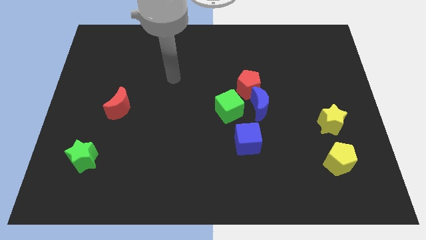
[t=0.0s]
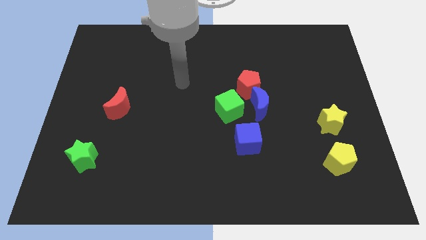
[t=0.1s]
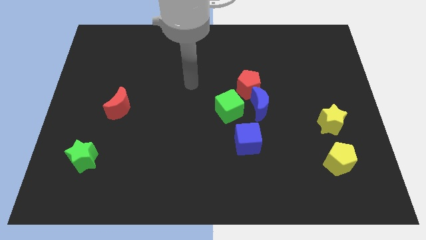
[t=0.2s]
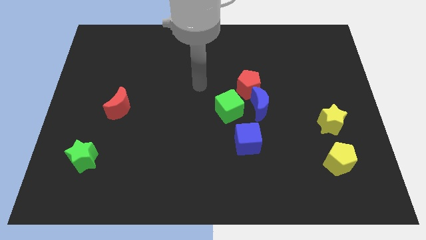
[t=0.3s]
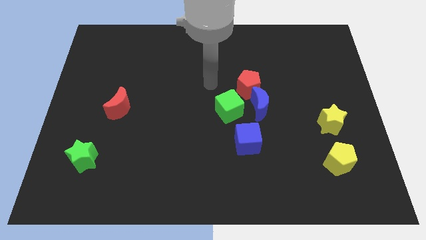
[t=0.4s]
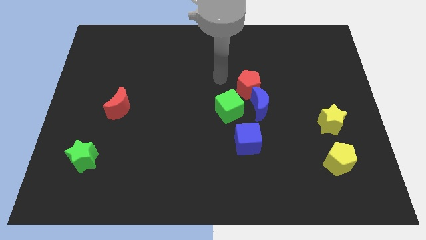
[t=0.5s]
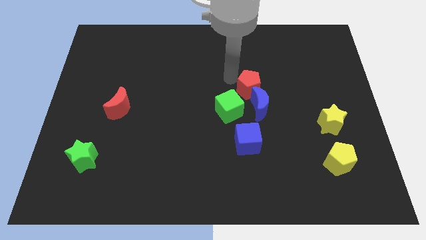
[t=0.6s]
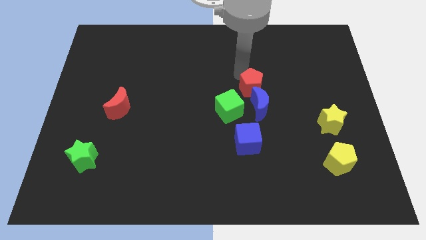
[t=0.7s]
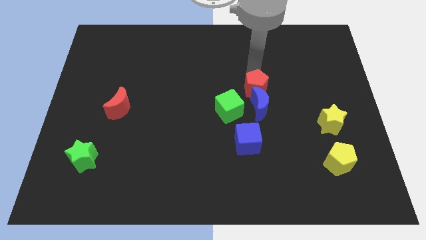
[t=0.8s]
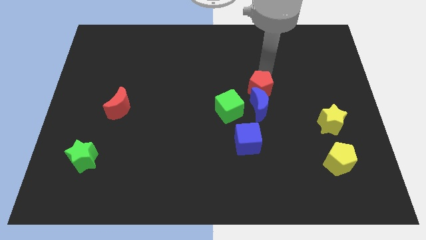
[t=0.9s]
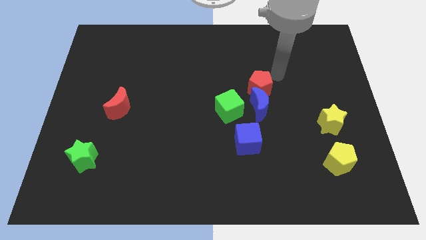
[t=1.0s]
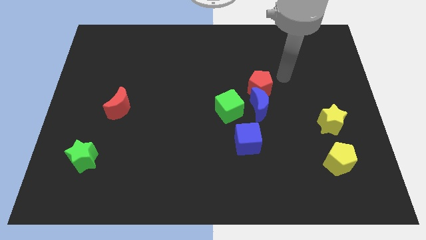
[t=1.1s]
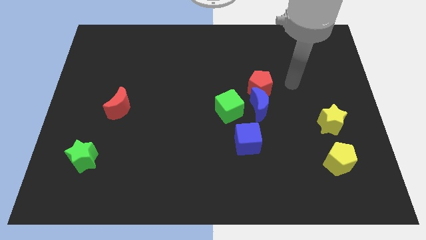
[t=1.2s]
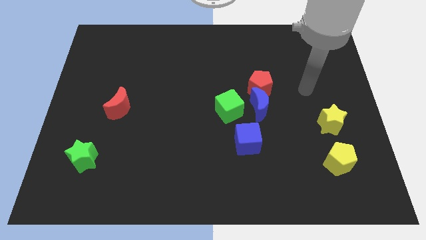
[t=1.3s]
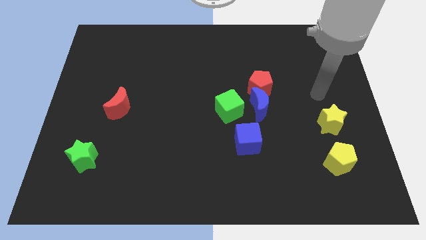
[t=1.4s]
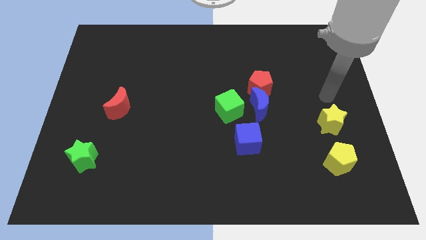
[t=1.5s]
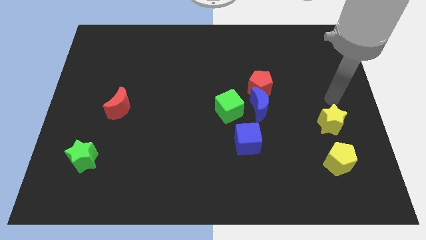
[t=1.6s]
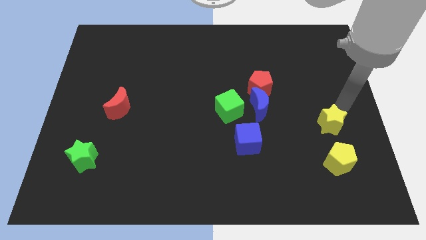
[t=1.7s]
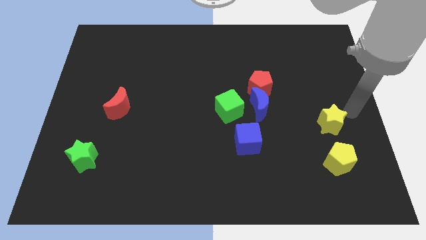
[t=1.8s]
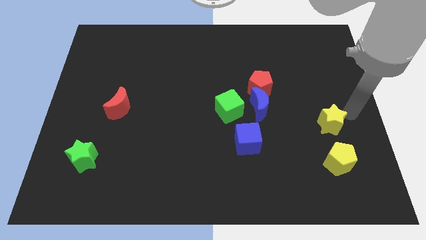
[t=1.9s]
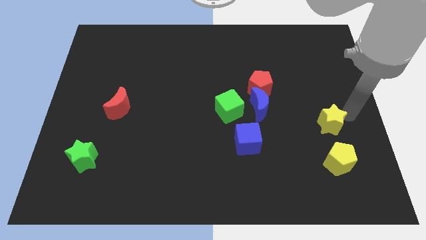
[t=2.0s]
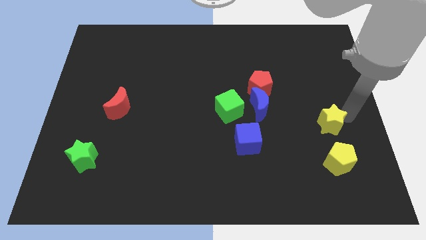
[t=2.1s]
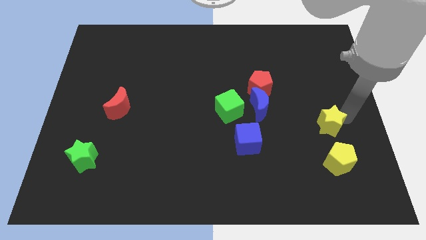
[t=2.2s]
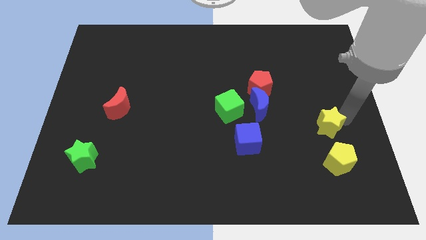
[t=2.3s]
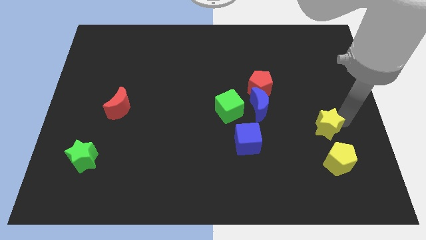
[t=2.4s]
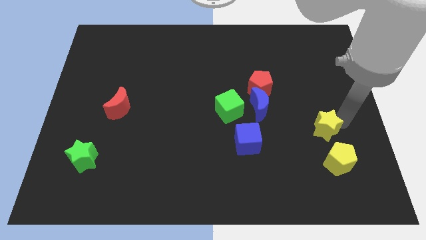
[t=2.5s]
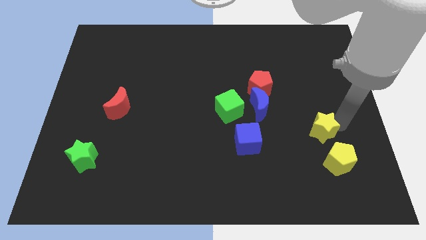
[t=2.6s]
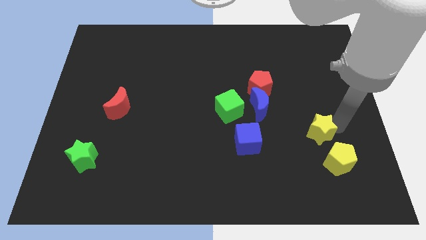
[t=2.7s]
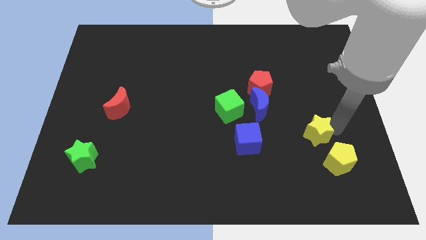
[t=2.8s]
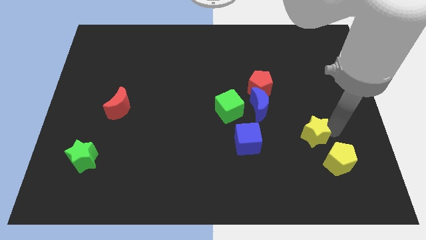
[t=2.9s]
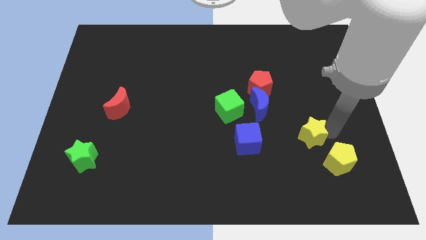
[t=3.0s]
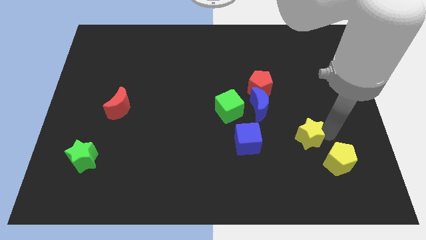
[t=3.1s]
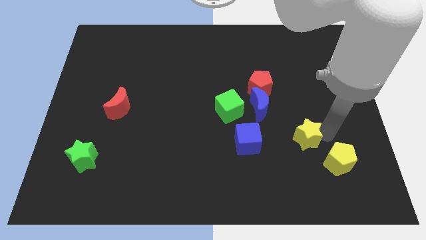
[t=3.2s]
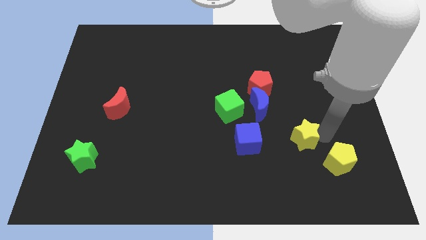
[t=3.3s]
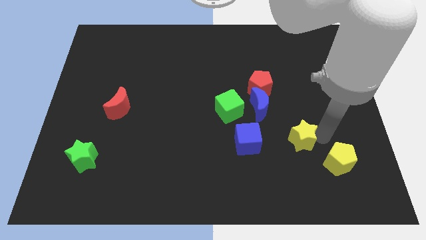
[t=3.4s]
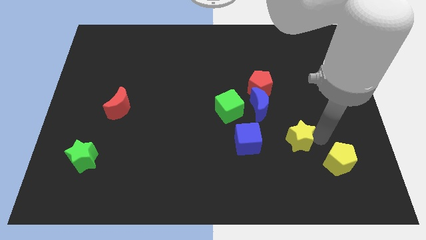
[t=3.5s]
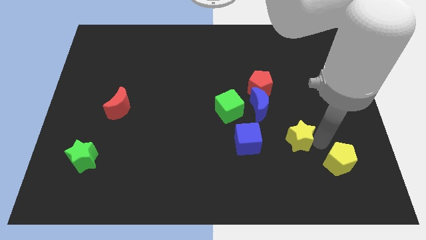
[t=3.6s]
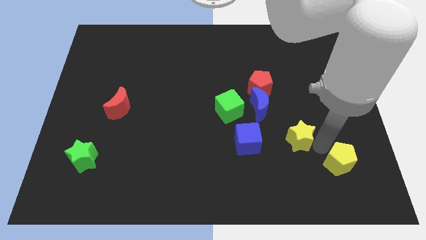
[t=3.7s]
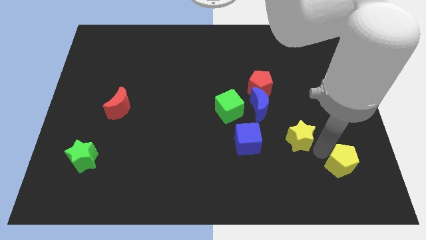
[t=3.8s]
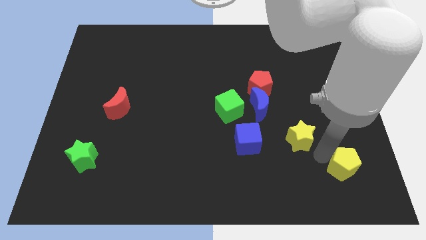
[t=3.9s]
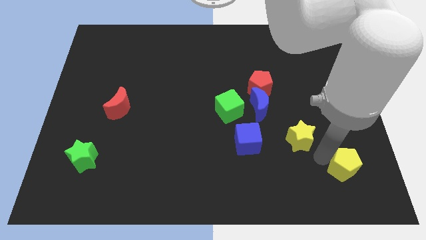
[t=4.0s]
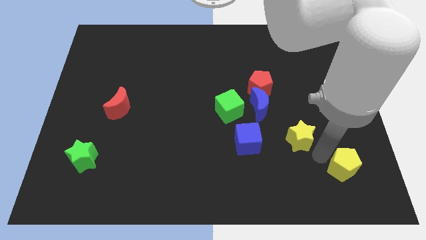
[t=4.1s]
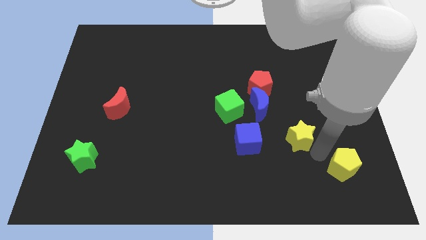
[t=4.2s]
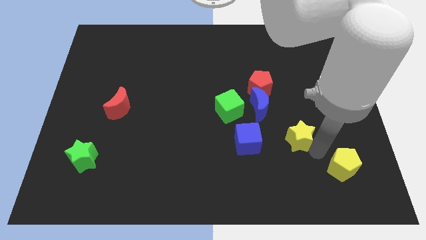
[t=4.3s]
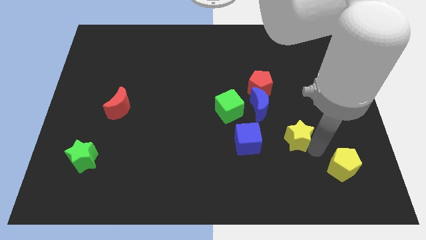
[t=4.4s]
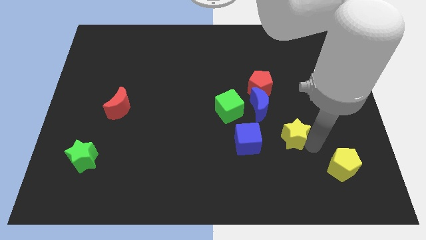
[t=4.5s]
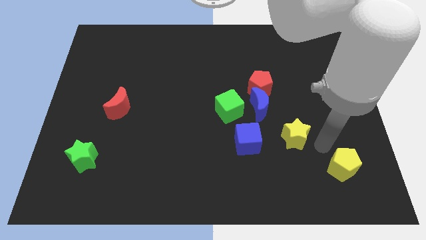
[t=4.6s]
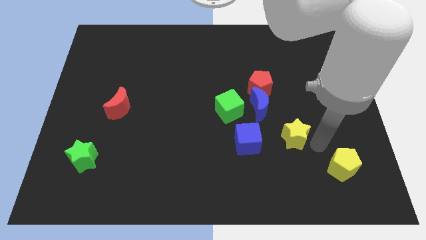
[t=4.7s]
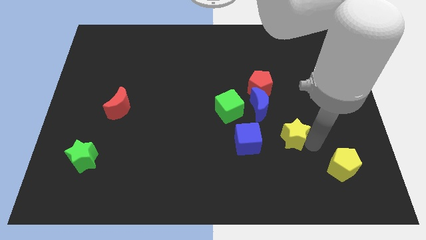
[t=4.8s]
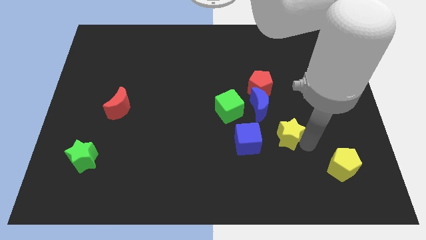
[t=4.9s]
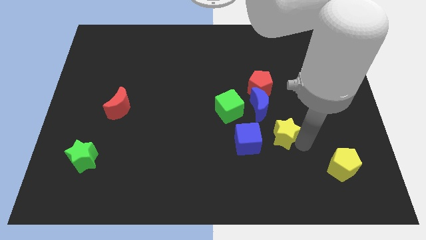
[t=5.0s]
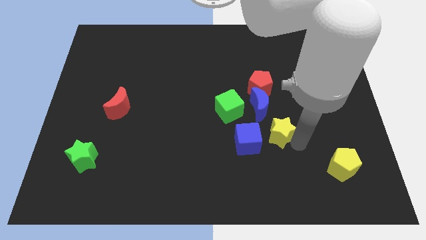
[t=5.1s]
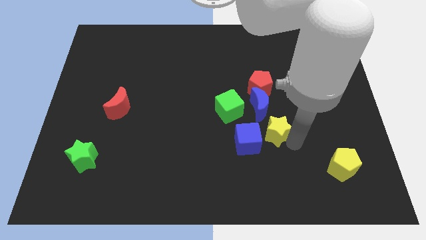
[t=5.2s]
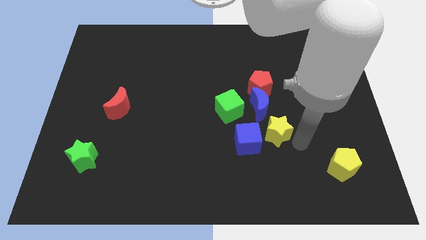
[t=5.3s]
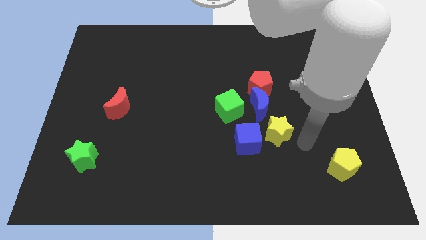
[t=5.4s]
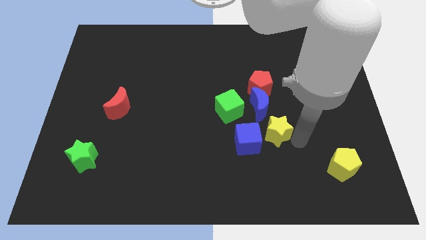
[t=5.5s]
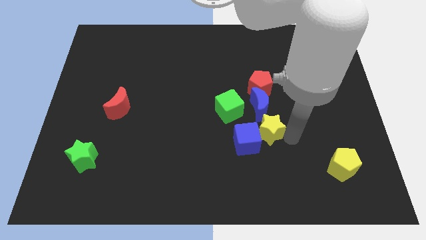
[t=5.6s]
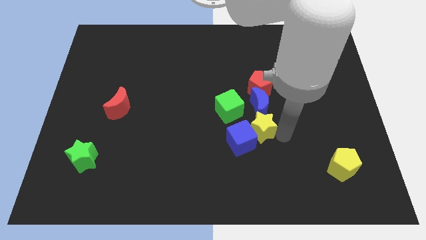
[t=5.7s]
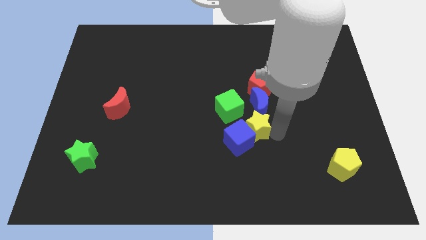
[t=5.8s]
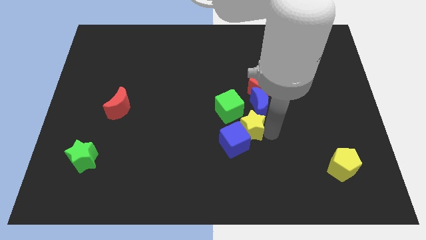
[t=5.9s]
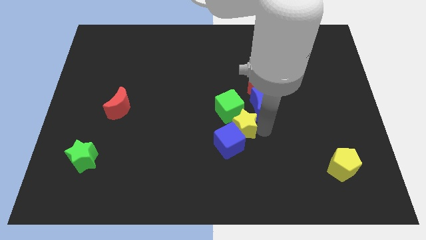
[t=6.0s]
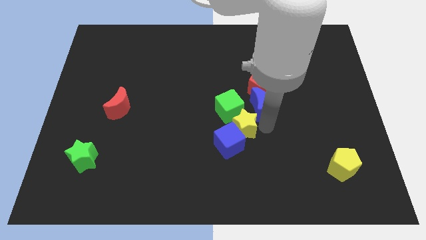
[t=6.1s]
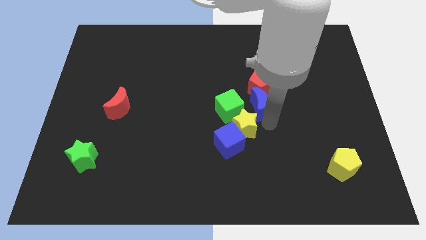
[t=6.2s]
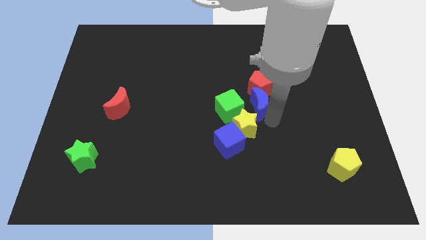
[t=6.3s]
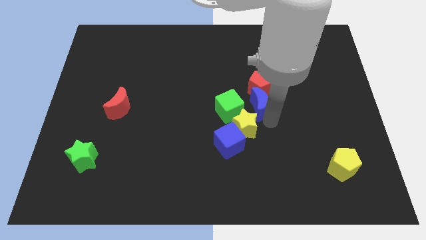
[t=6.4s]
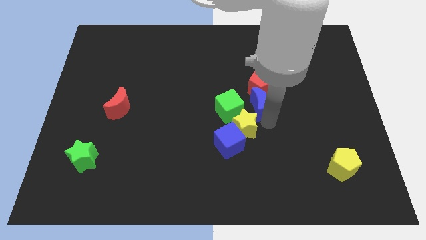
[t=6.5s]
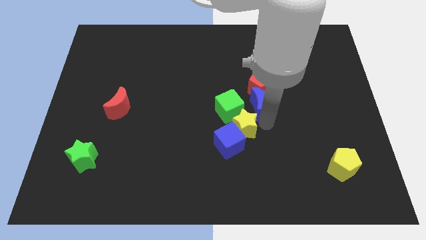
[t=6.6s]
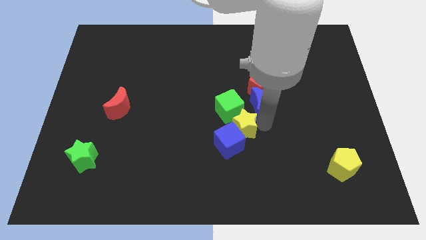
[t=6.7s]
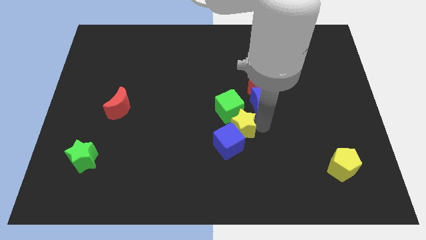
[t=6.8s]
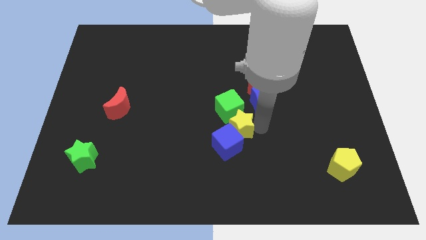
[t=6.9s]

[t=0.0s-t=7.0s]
push the yellow star left

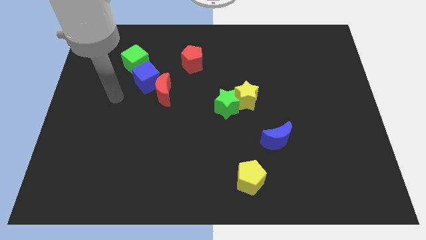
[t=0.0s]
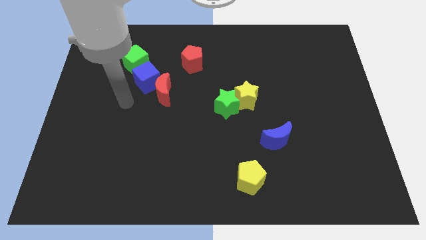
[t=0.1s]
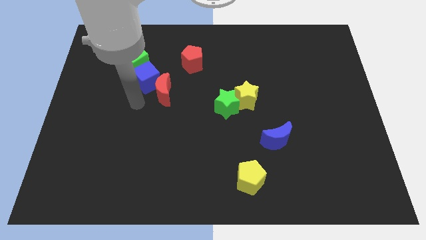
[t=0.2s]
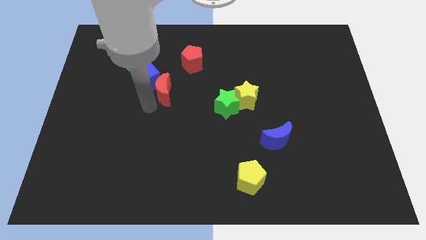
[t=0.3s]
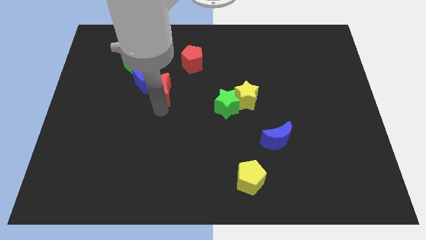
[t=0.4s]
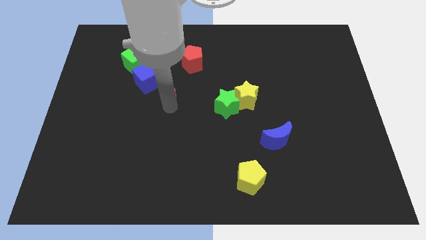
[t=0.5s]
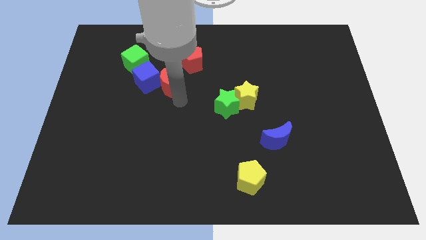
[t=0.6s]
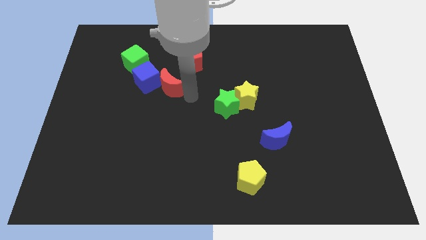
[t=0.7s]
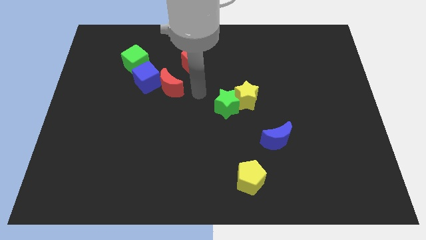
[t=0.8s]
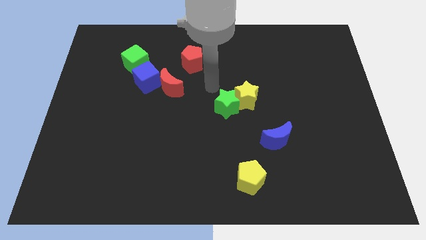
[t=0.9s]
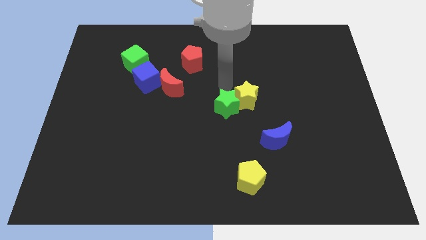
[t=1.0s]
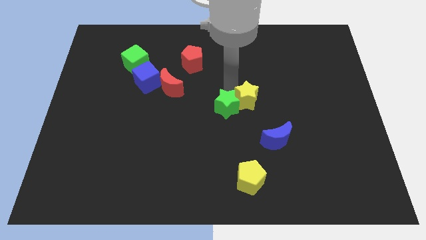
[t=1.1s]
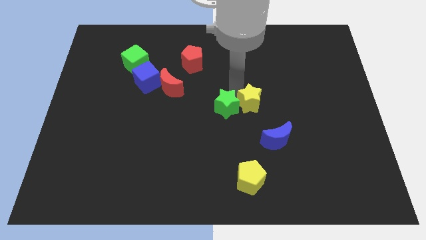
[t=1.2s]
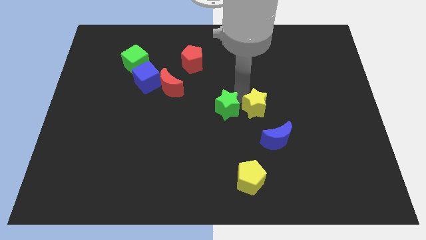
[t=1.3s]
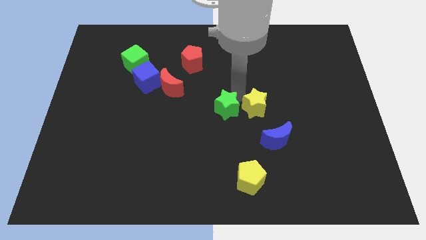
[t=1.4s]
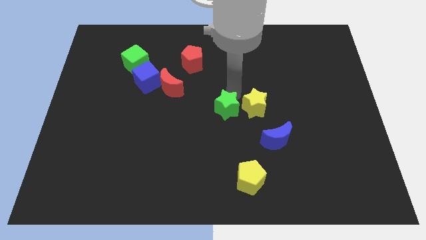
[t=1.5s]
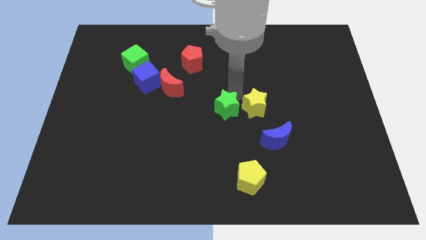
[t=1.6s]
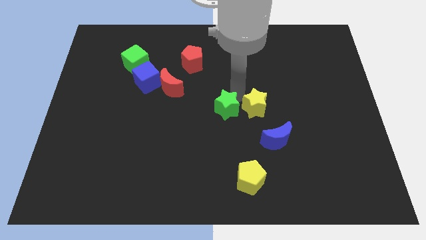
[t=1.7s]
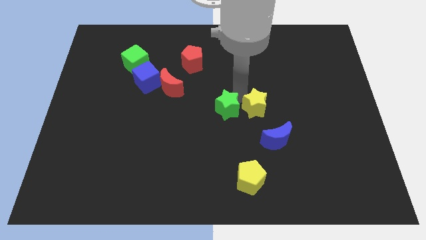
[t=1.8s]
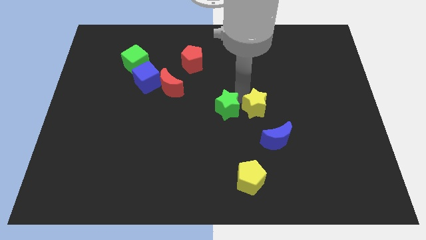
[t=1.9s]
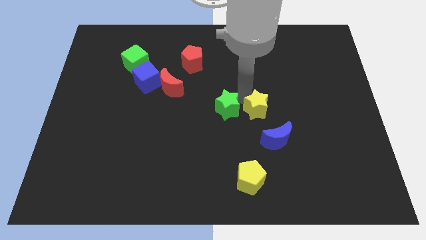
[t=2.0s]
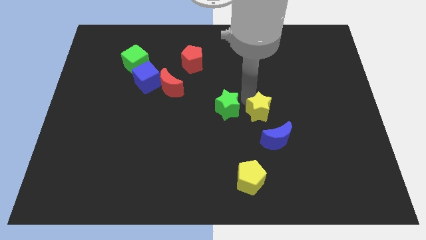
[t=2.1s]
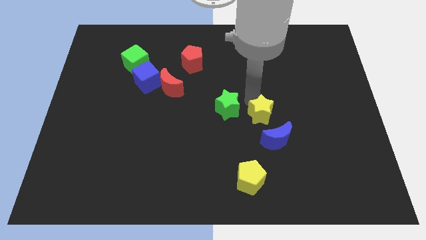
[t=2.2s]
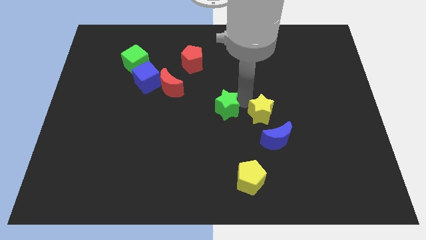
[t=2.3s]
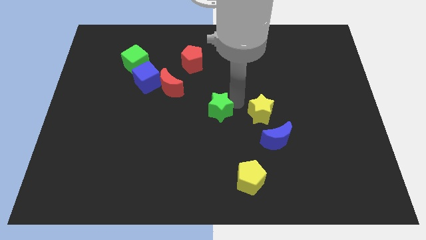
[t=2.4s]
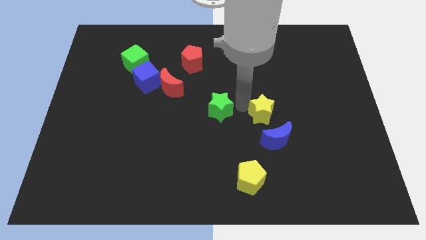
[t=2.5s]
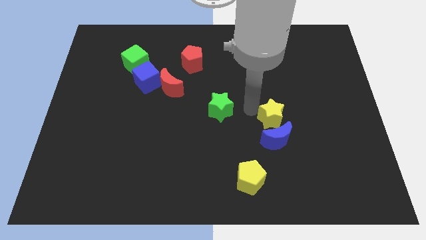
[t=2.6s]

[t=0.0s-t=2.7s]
push the yellow star a bit diagonally down and right
